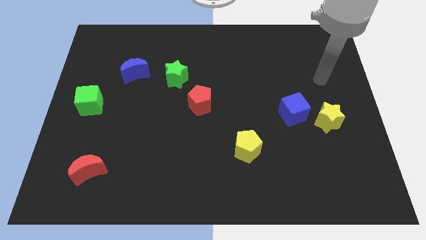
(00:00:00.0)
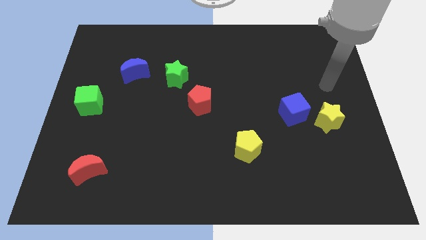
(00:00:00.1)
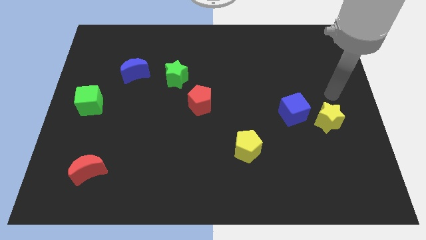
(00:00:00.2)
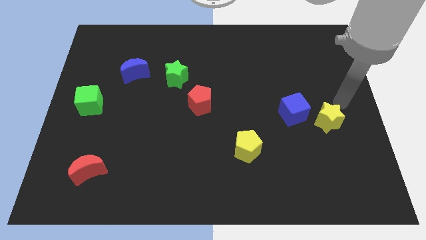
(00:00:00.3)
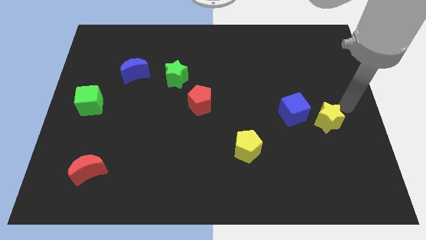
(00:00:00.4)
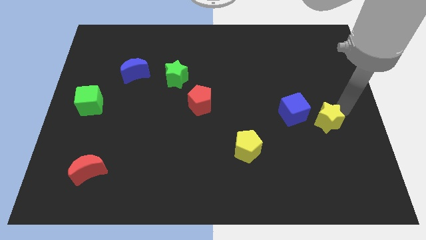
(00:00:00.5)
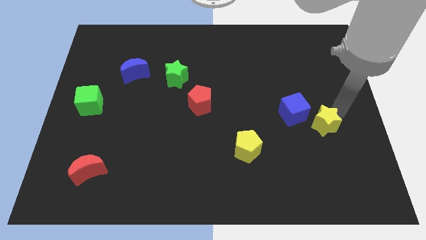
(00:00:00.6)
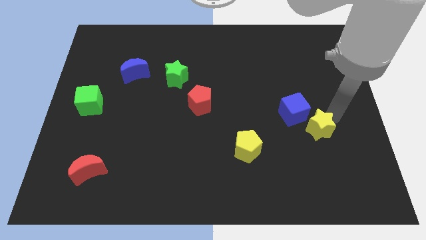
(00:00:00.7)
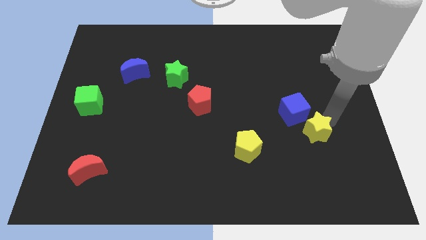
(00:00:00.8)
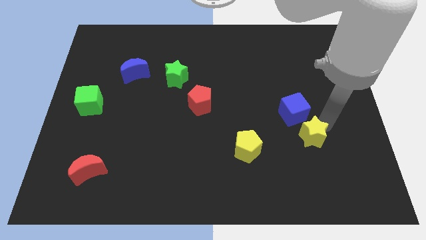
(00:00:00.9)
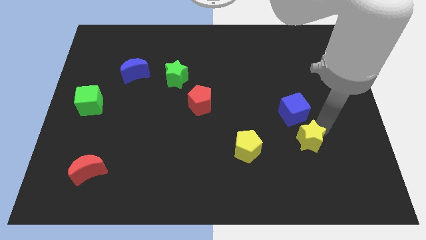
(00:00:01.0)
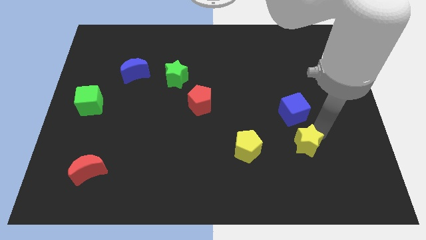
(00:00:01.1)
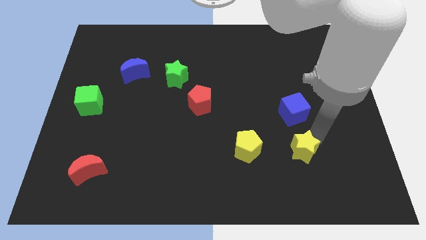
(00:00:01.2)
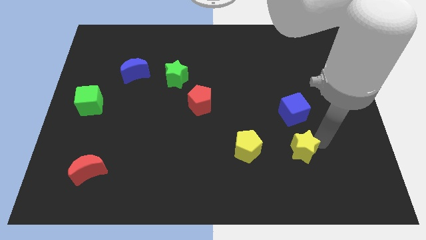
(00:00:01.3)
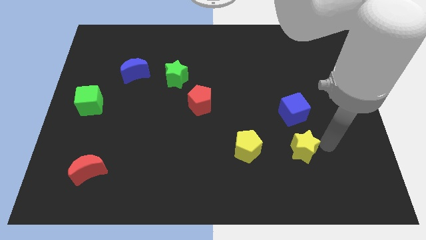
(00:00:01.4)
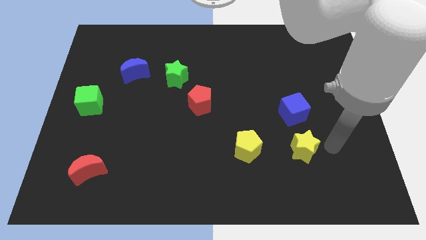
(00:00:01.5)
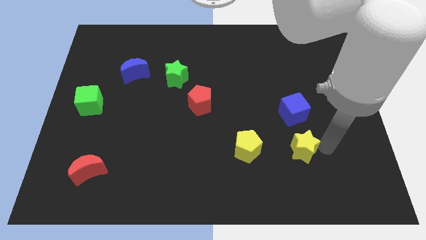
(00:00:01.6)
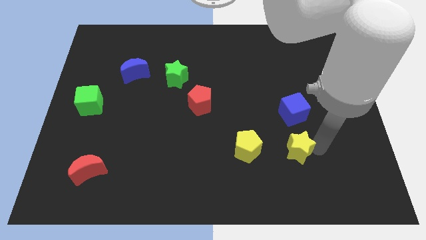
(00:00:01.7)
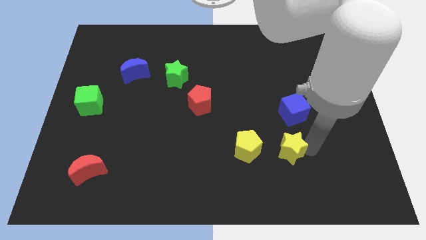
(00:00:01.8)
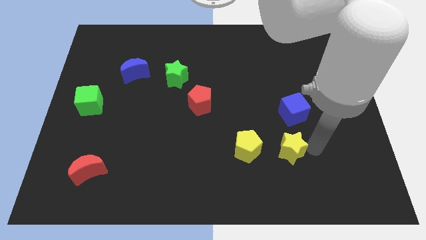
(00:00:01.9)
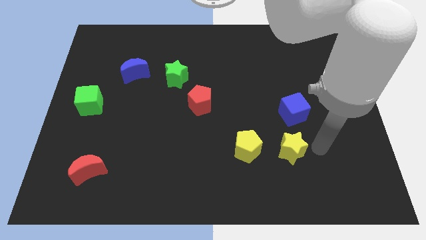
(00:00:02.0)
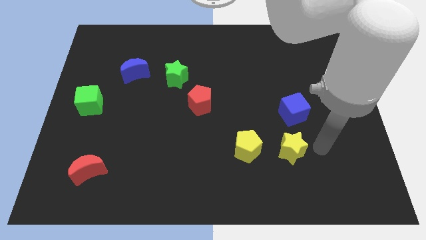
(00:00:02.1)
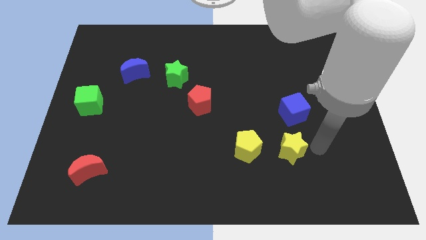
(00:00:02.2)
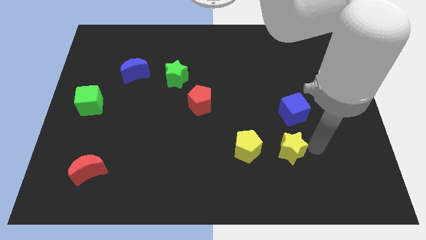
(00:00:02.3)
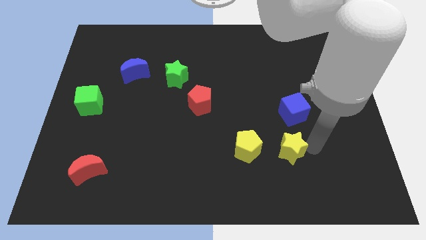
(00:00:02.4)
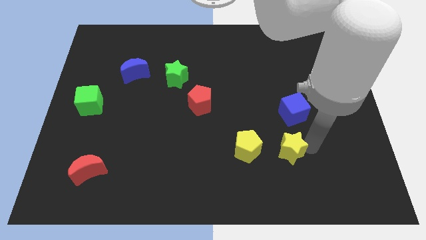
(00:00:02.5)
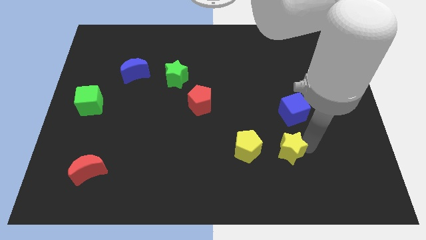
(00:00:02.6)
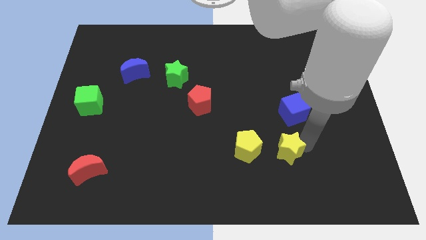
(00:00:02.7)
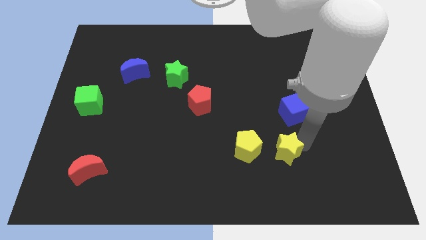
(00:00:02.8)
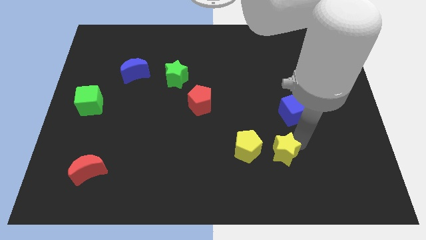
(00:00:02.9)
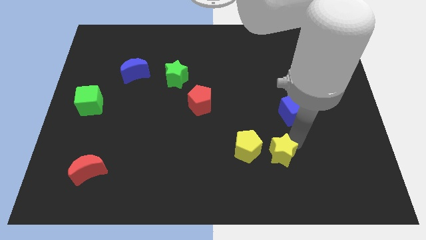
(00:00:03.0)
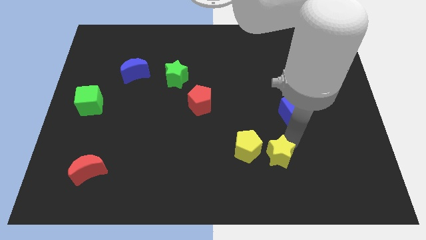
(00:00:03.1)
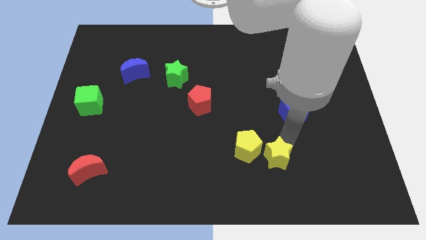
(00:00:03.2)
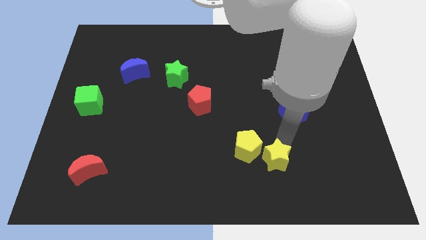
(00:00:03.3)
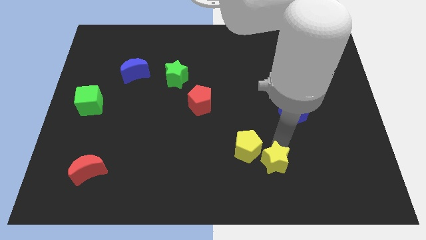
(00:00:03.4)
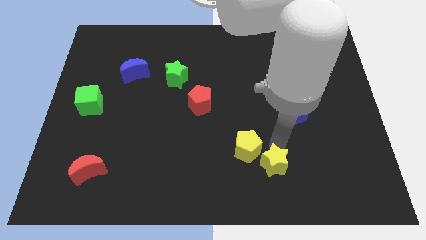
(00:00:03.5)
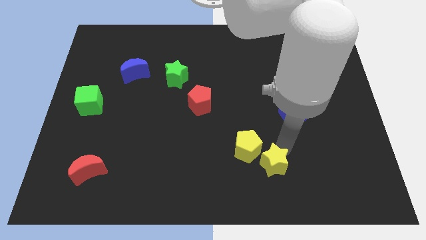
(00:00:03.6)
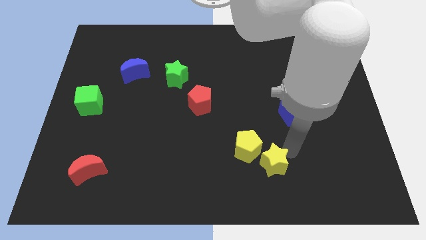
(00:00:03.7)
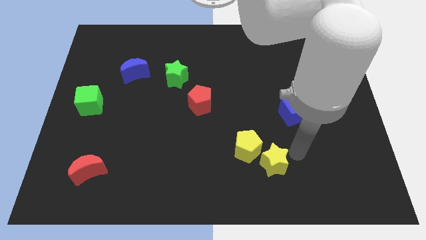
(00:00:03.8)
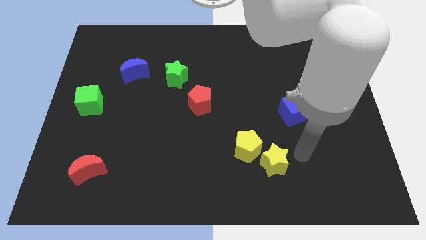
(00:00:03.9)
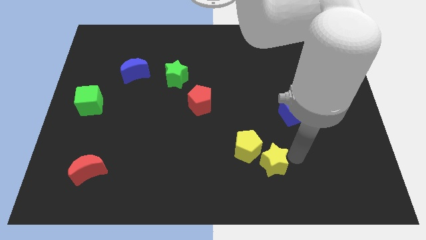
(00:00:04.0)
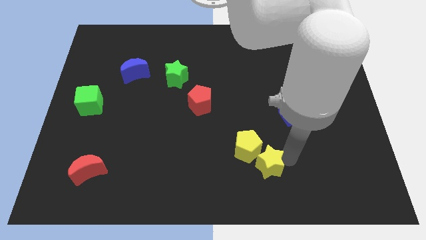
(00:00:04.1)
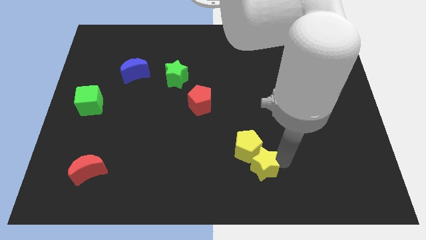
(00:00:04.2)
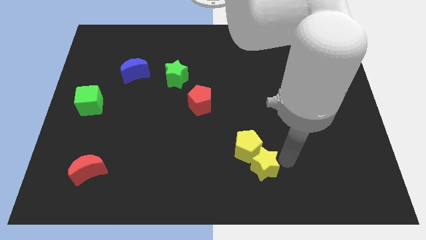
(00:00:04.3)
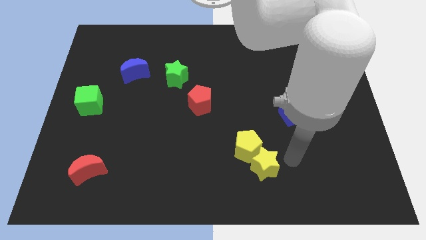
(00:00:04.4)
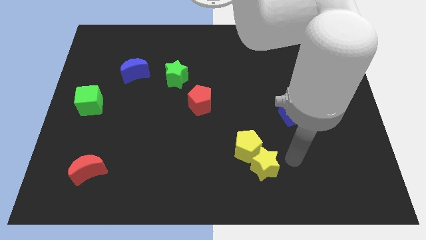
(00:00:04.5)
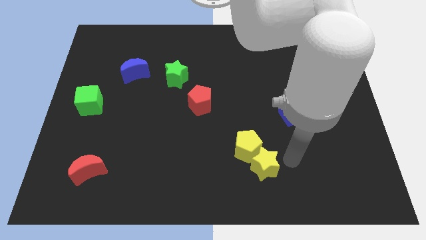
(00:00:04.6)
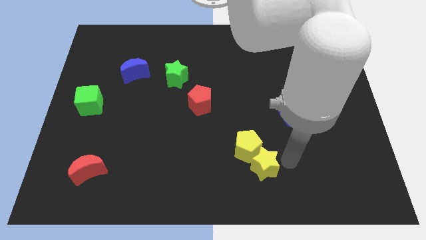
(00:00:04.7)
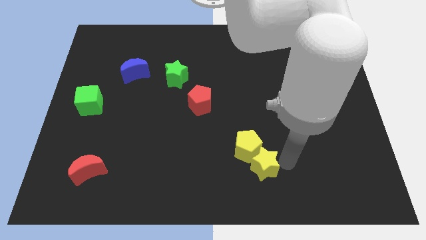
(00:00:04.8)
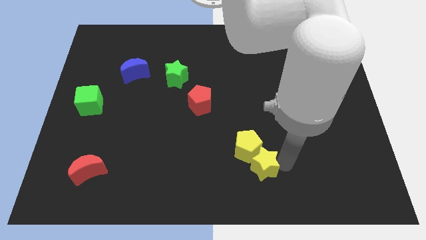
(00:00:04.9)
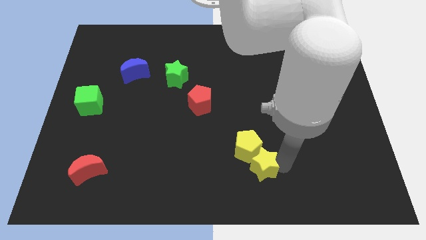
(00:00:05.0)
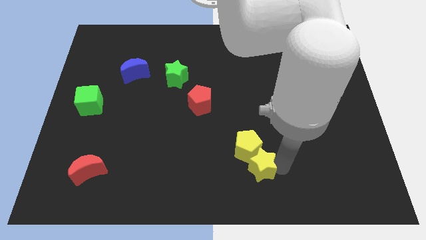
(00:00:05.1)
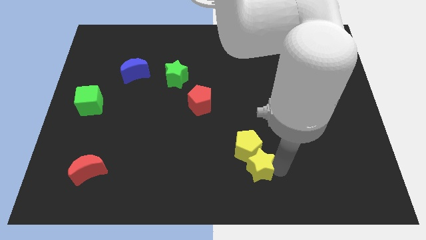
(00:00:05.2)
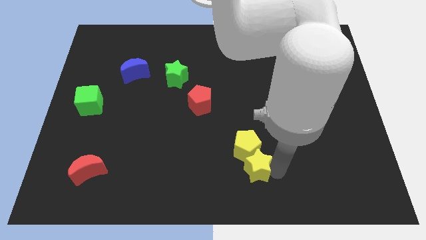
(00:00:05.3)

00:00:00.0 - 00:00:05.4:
push the yellow star to the bottom side

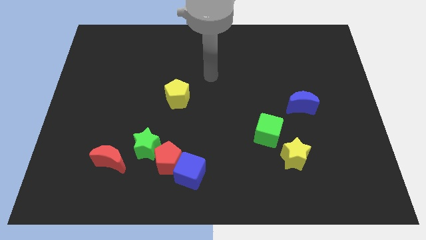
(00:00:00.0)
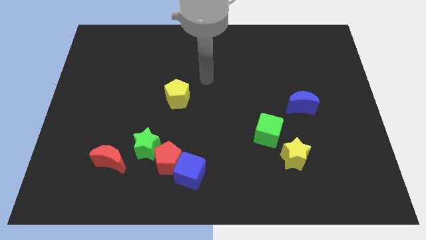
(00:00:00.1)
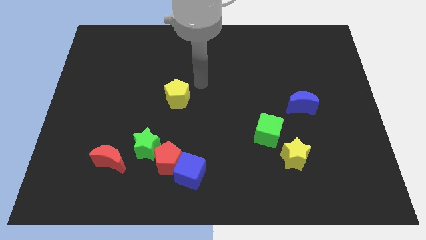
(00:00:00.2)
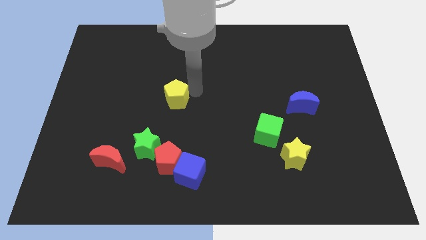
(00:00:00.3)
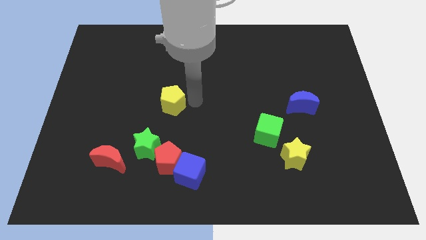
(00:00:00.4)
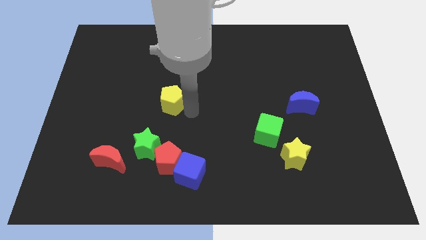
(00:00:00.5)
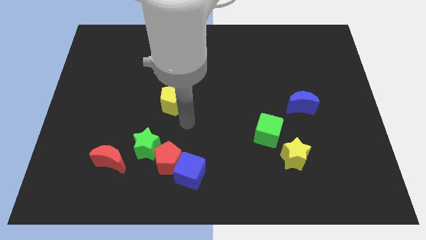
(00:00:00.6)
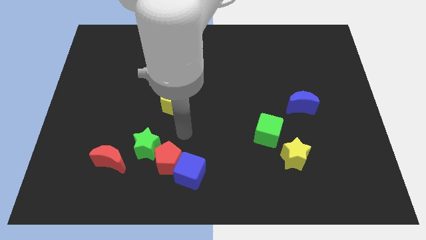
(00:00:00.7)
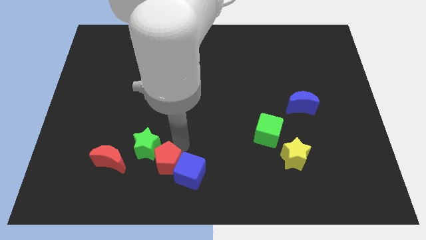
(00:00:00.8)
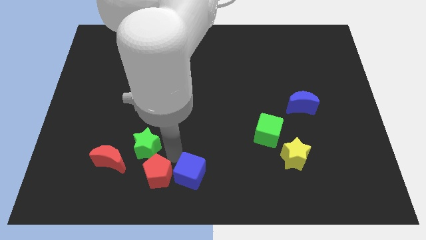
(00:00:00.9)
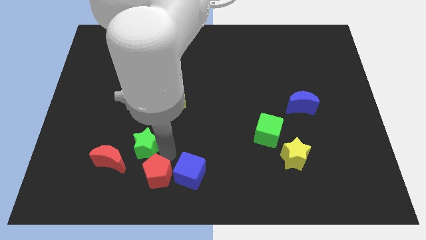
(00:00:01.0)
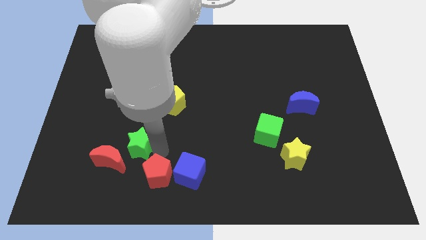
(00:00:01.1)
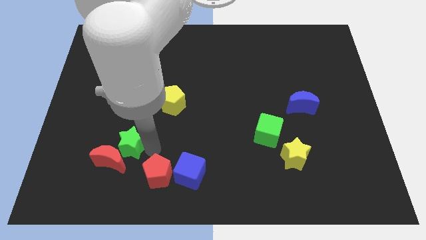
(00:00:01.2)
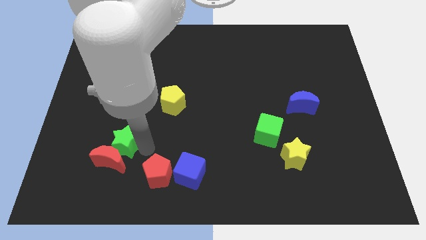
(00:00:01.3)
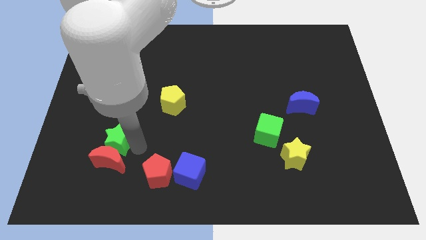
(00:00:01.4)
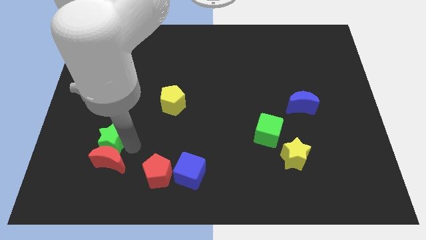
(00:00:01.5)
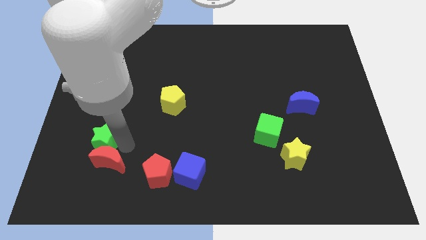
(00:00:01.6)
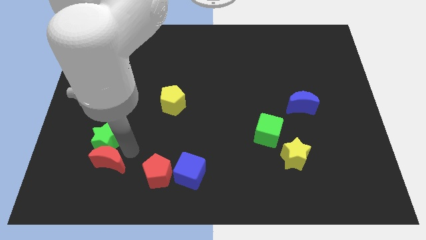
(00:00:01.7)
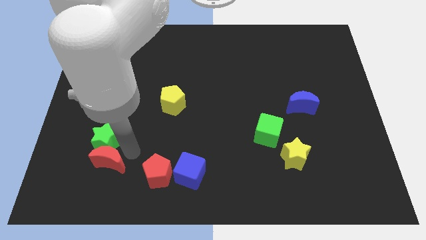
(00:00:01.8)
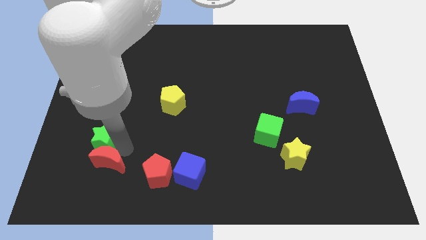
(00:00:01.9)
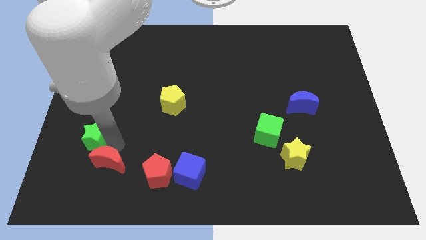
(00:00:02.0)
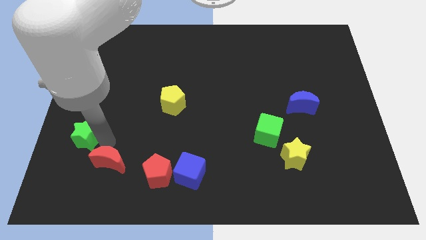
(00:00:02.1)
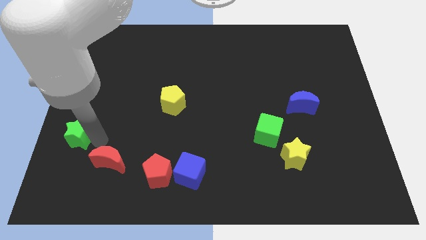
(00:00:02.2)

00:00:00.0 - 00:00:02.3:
push the green star to the left side of the board

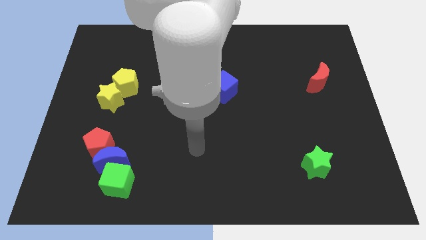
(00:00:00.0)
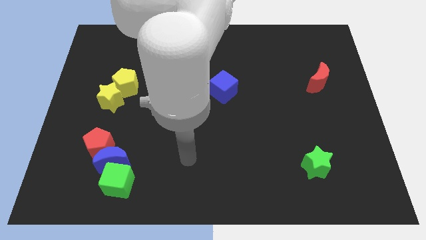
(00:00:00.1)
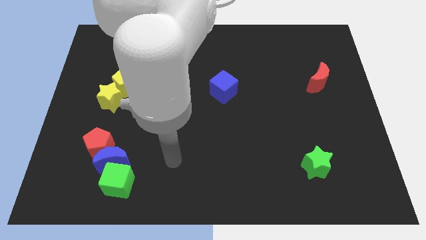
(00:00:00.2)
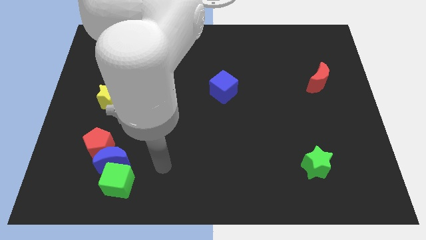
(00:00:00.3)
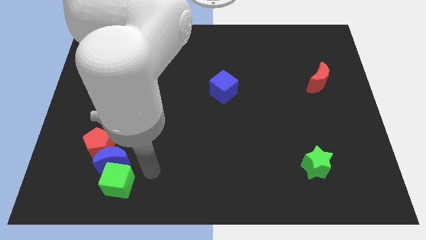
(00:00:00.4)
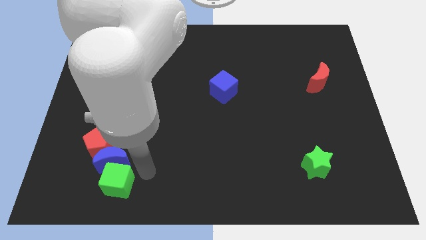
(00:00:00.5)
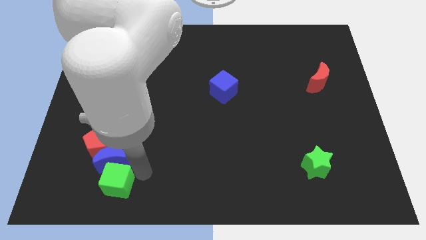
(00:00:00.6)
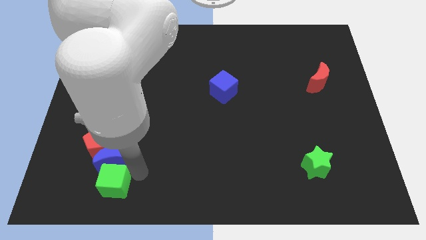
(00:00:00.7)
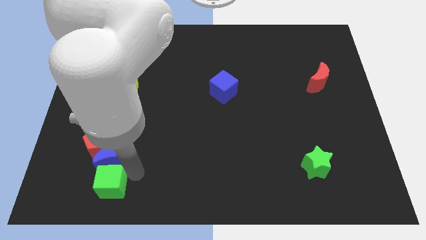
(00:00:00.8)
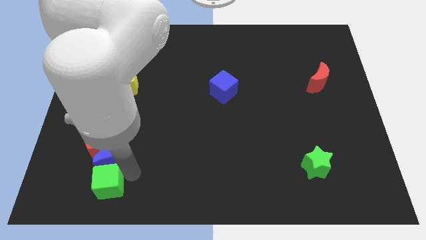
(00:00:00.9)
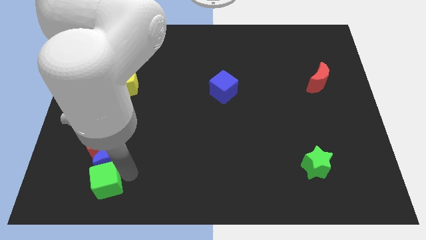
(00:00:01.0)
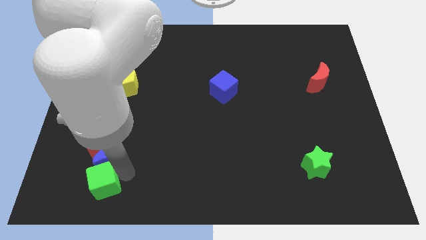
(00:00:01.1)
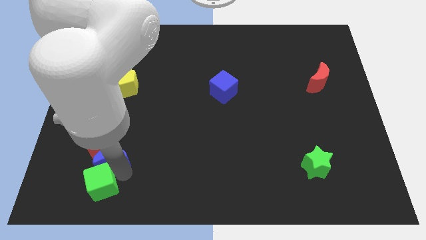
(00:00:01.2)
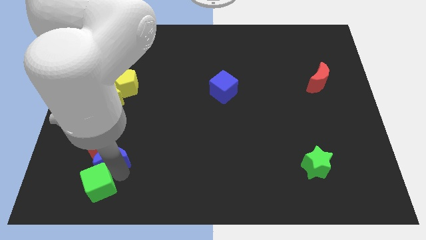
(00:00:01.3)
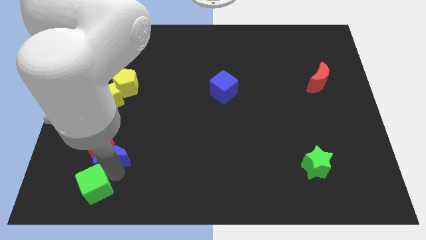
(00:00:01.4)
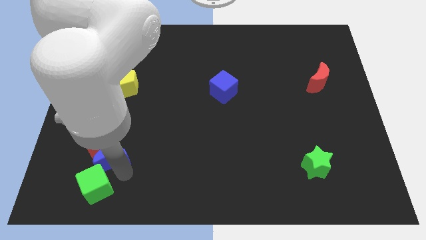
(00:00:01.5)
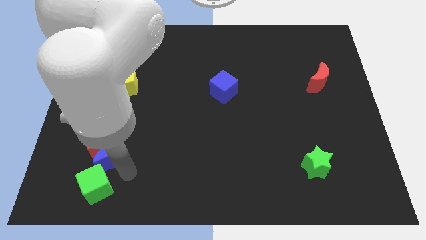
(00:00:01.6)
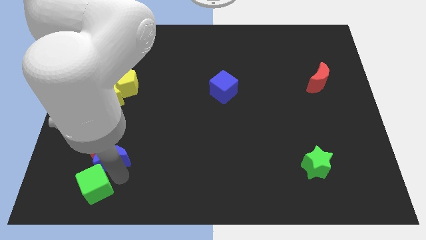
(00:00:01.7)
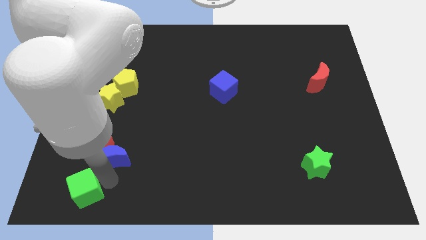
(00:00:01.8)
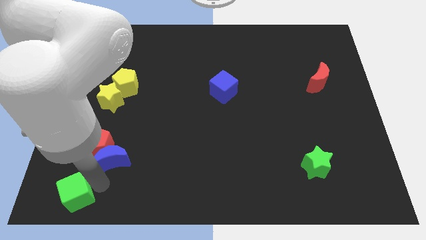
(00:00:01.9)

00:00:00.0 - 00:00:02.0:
move the green cube to the lower left corner
